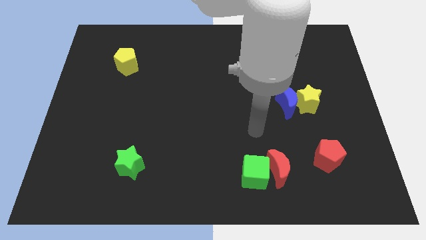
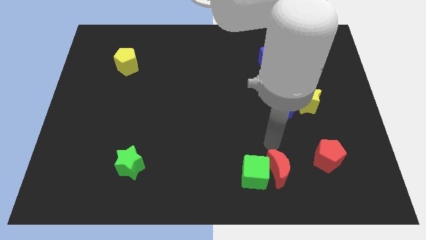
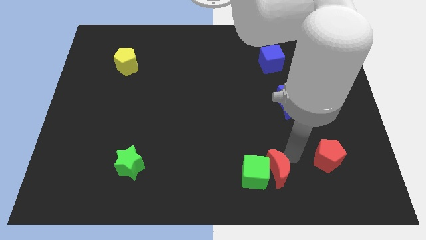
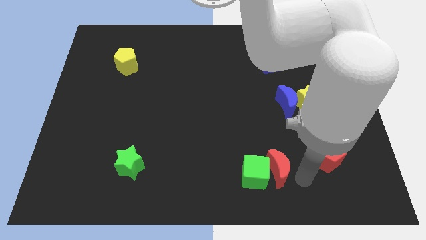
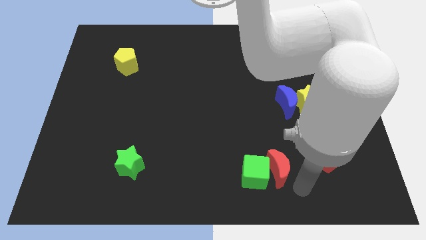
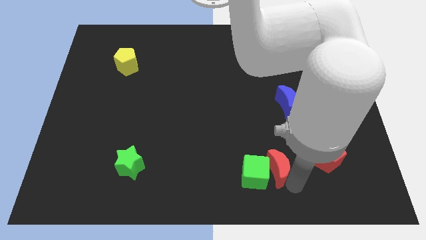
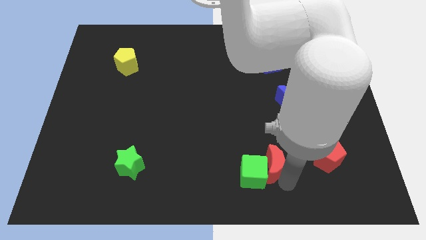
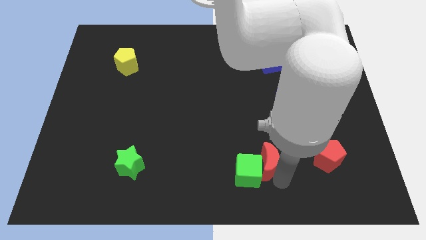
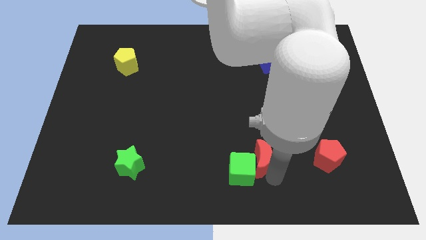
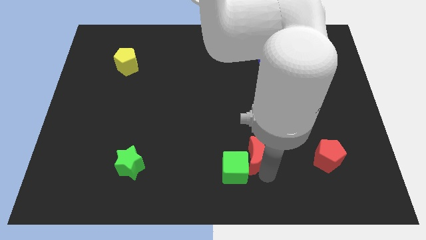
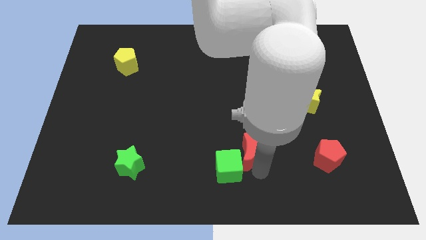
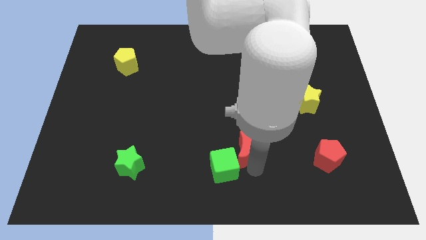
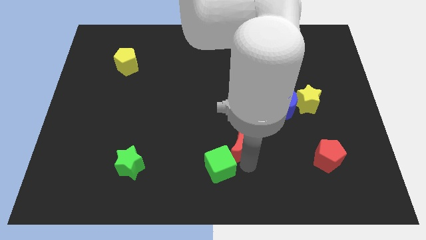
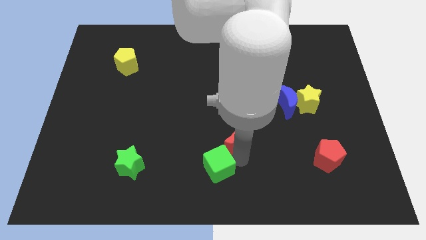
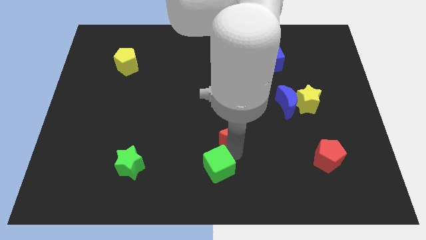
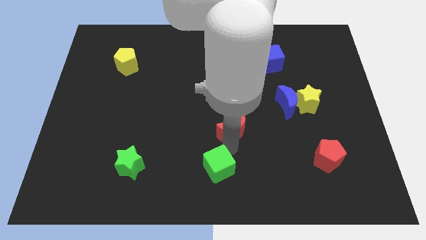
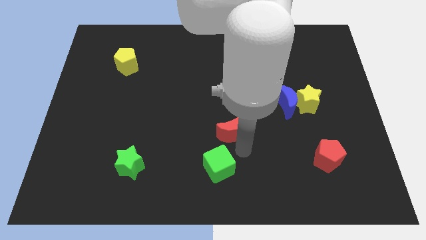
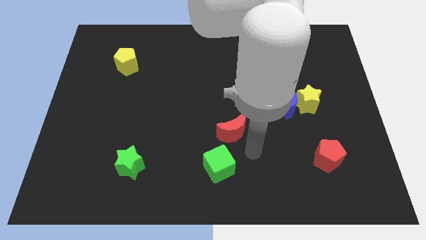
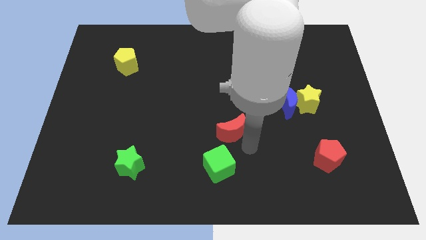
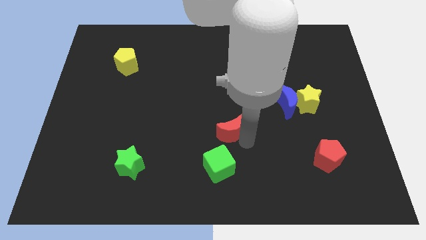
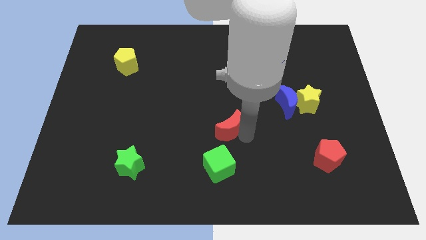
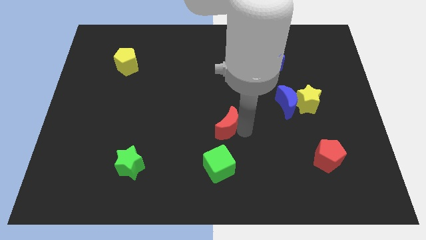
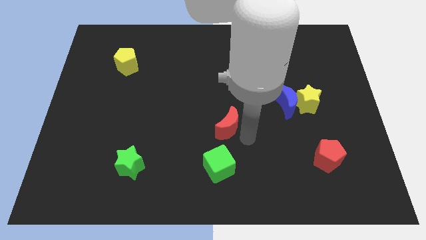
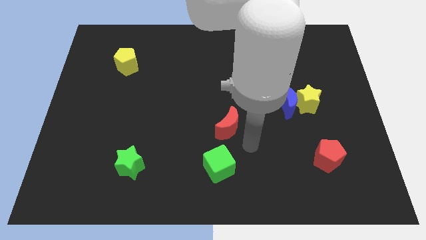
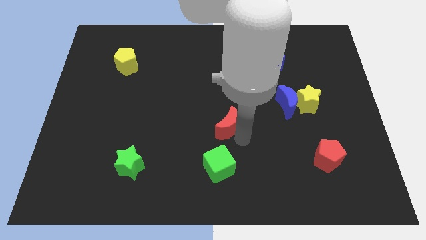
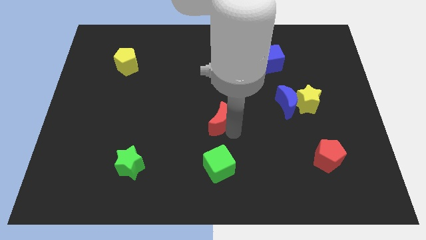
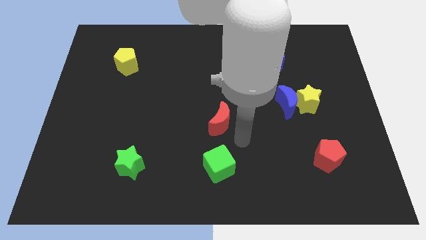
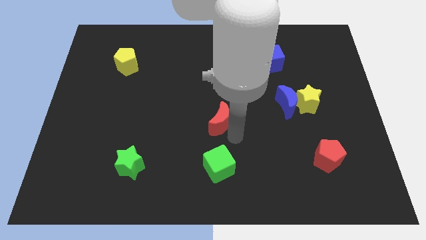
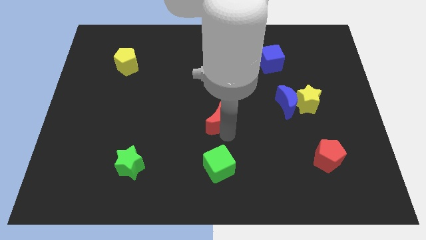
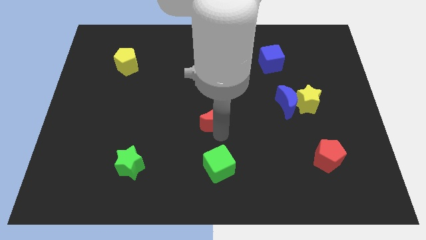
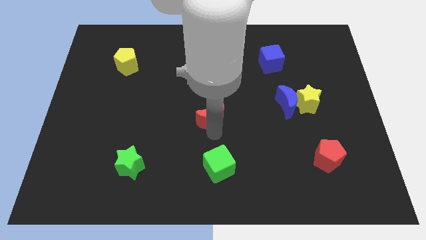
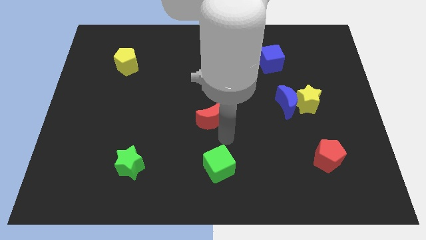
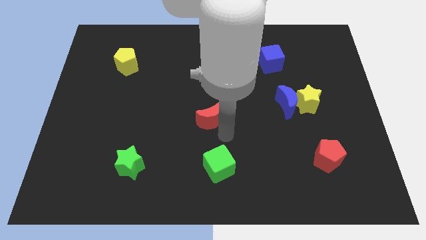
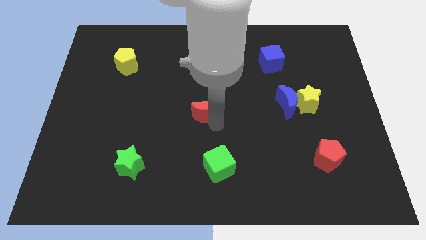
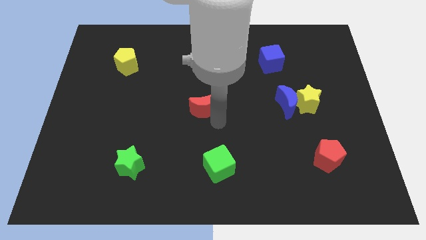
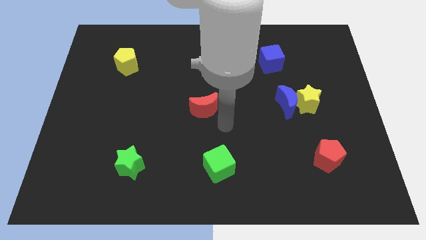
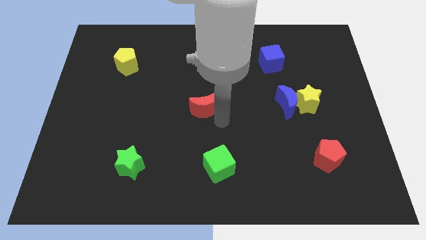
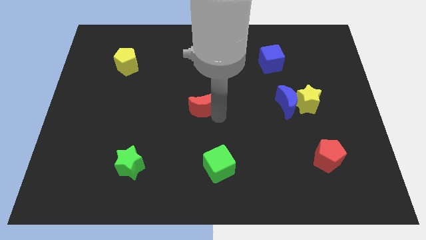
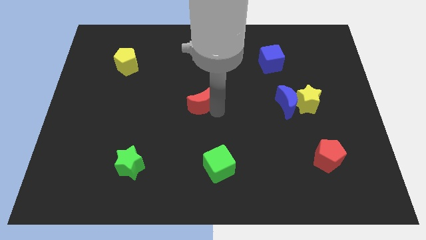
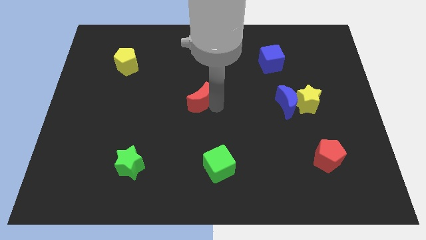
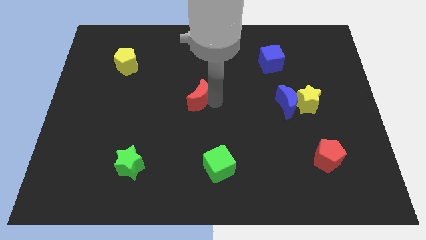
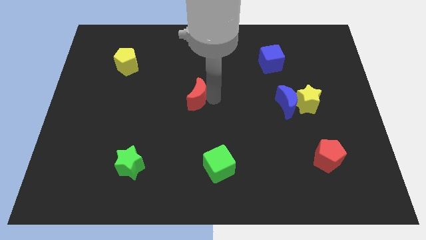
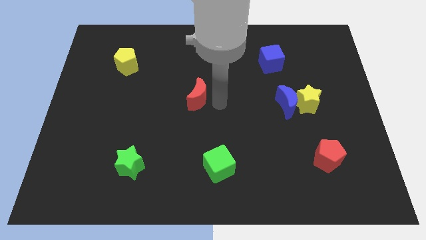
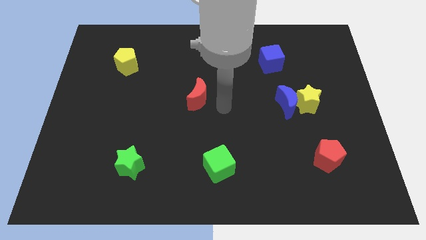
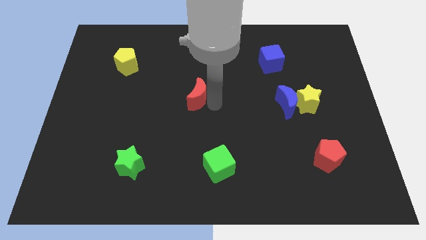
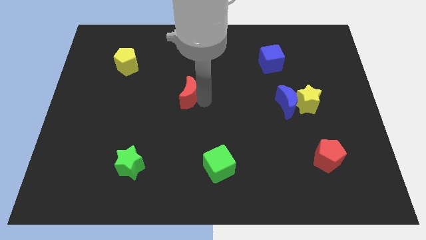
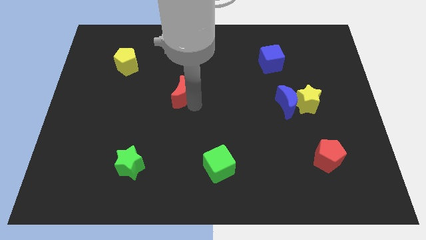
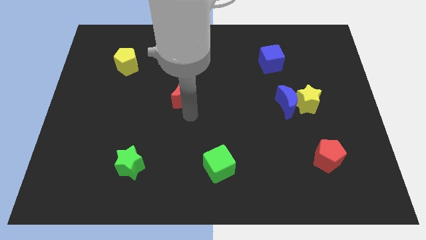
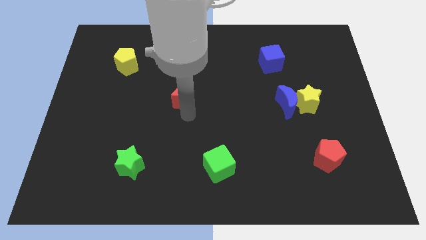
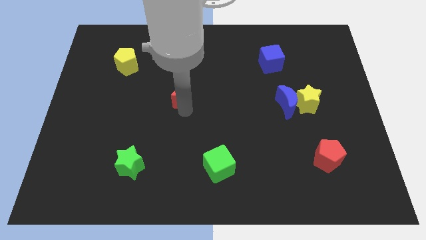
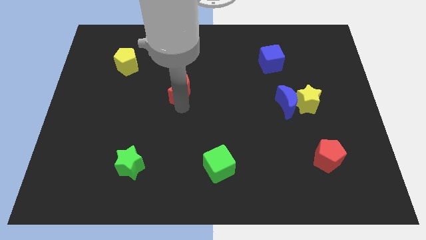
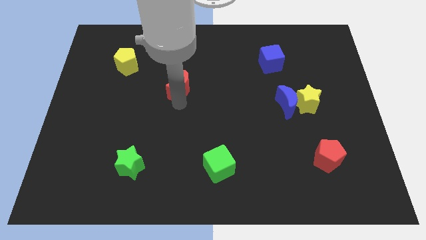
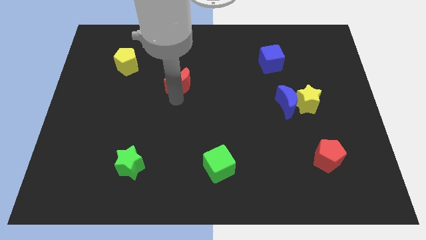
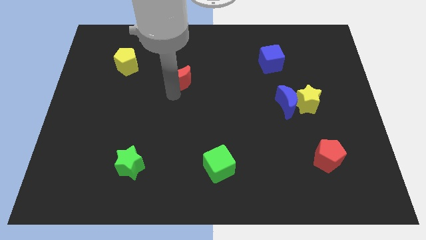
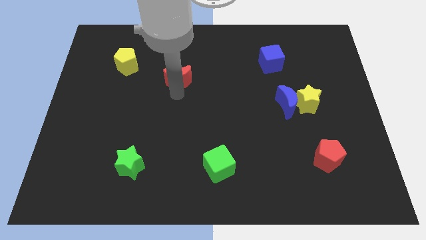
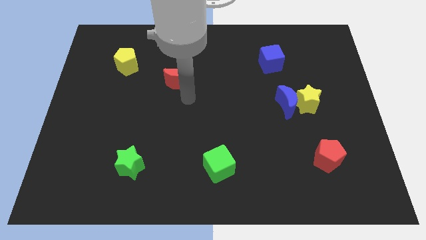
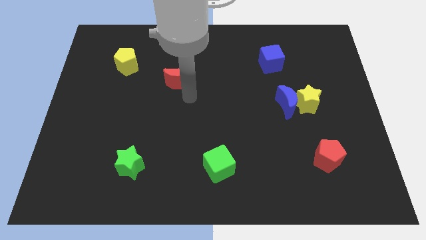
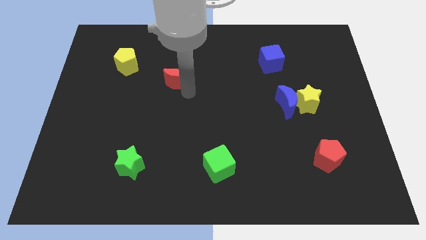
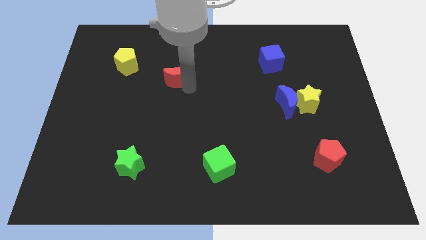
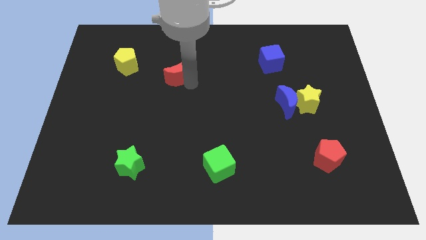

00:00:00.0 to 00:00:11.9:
push the red moon just right of the yellow pentagon

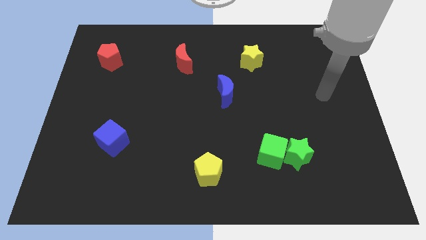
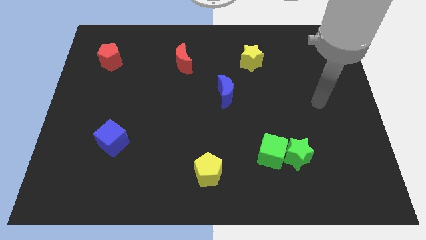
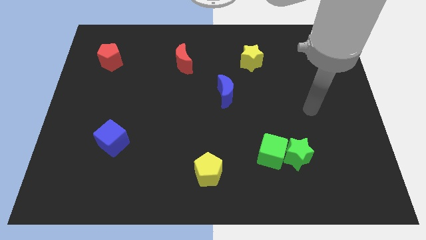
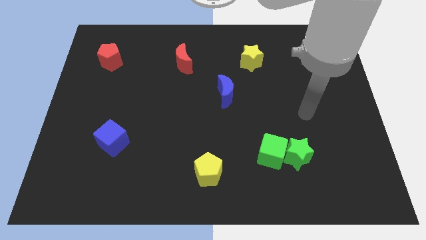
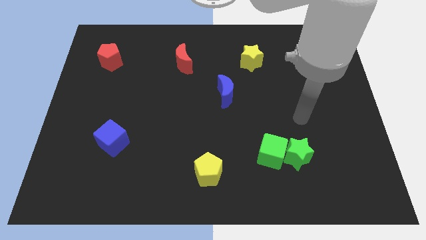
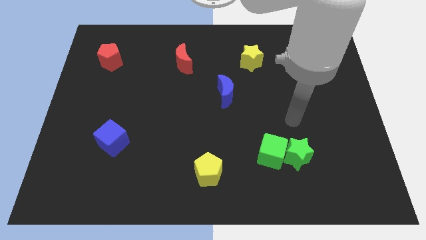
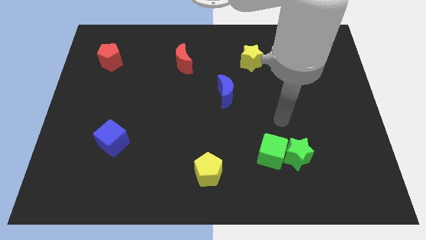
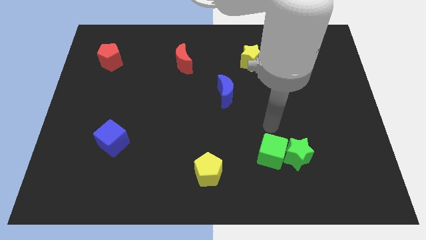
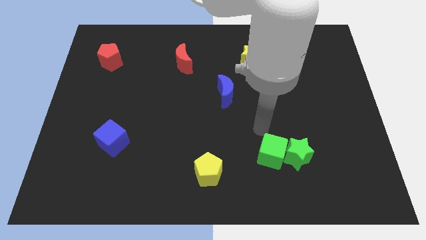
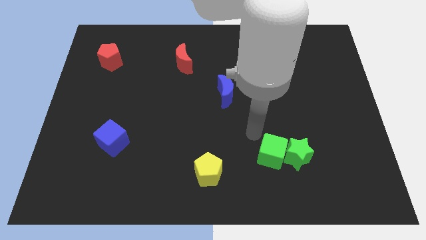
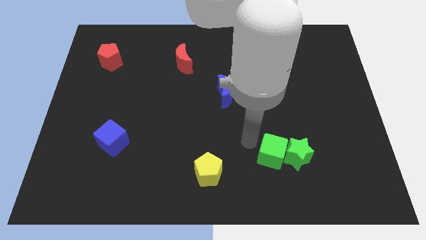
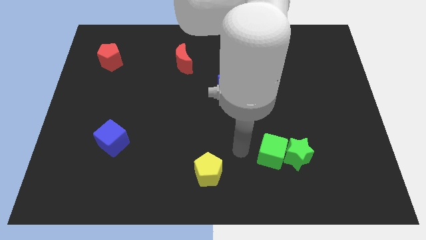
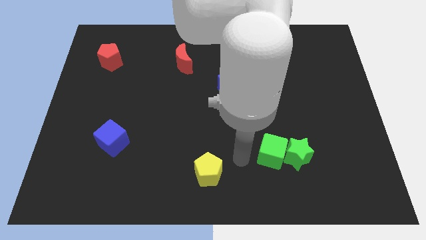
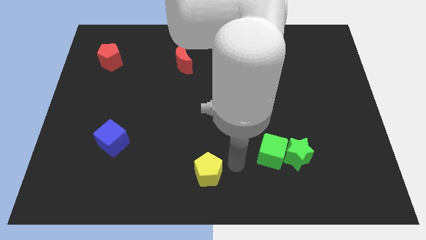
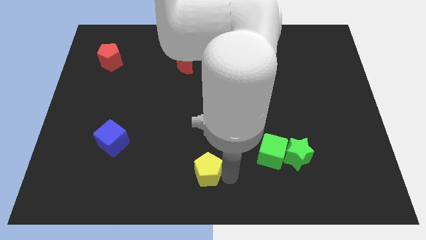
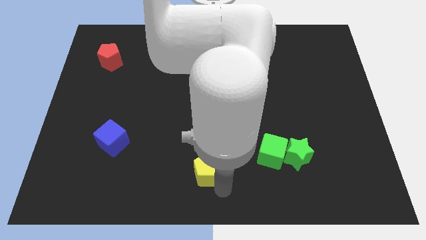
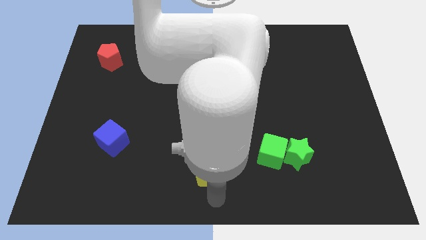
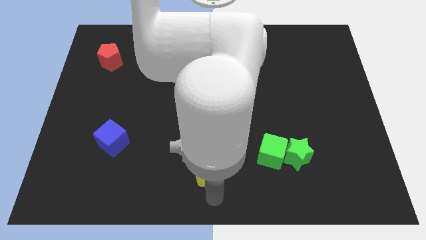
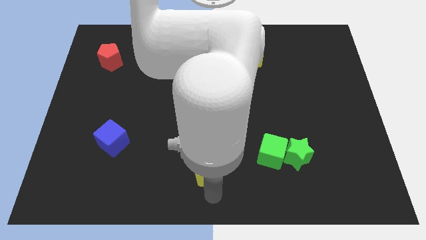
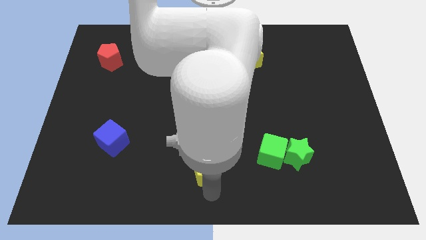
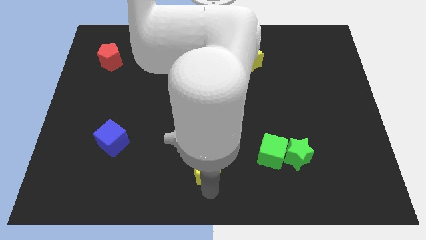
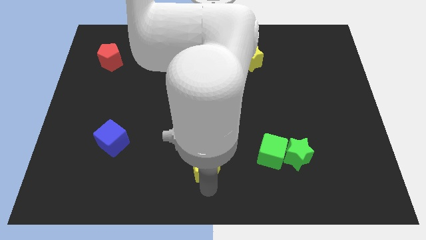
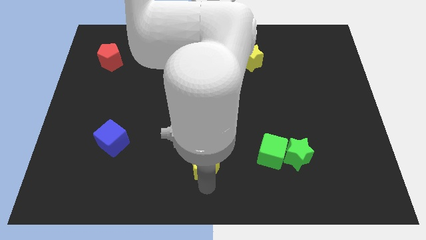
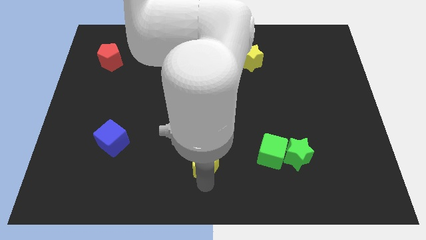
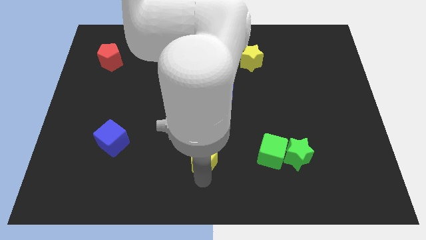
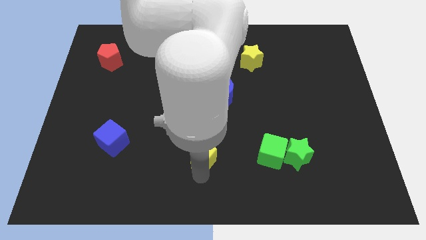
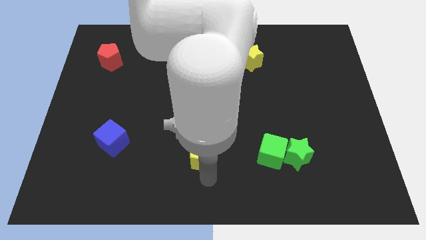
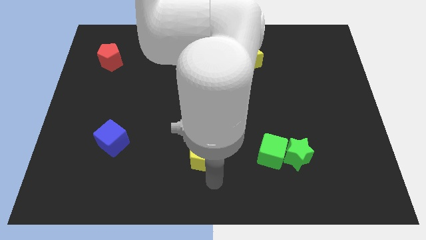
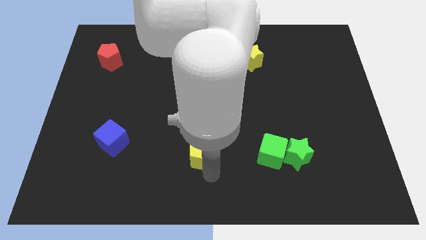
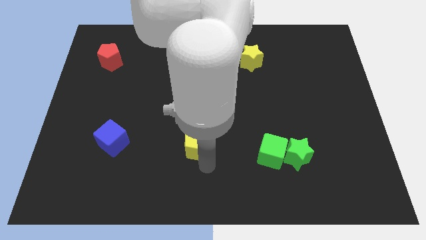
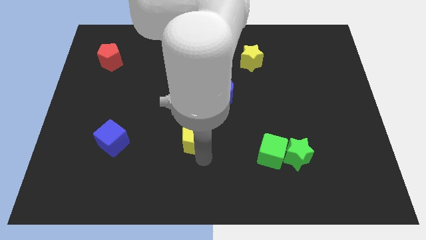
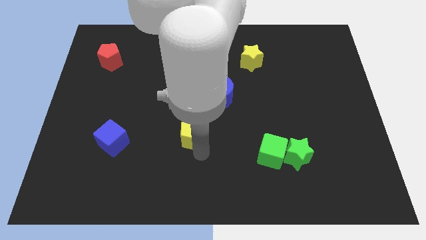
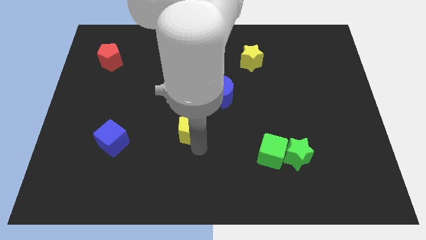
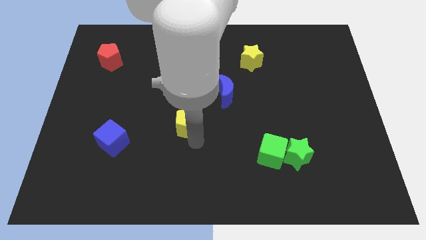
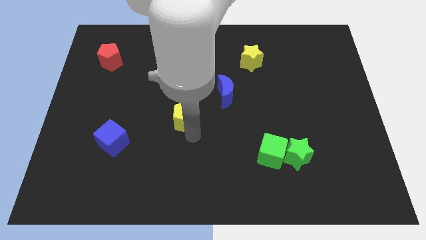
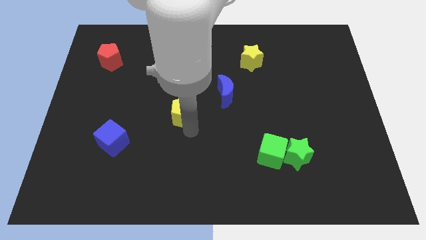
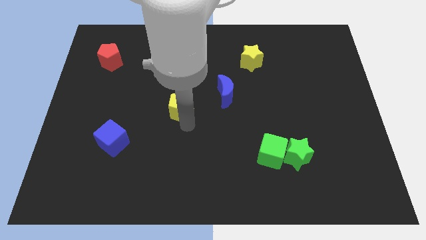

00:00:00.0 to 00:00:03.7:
move the yellow pentagon to the left side of the blue moon
